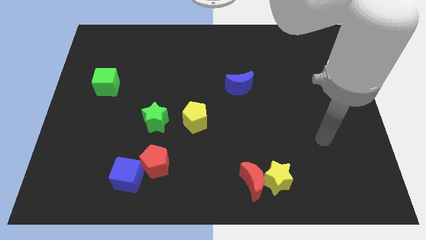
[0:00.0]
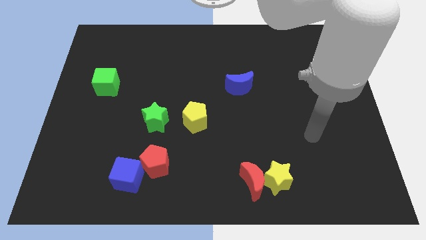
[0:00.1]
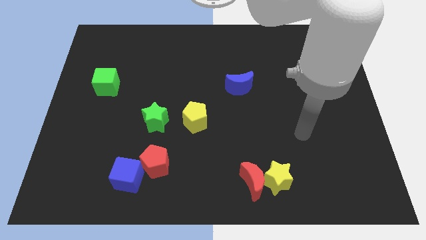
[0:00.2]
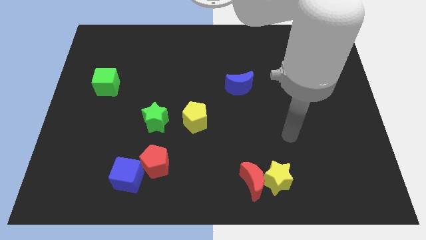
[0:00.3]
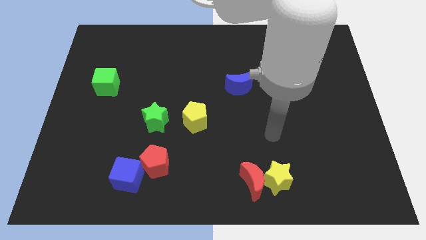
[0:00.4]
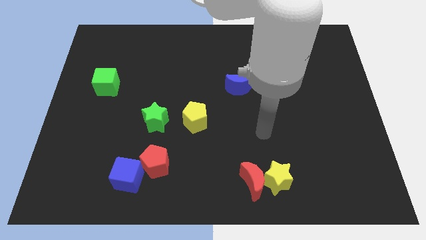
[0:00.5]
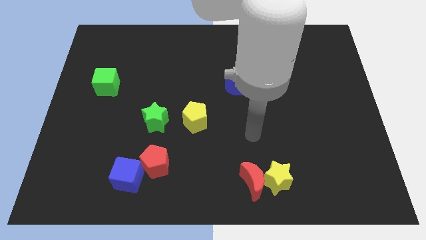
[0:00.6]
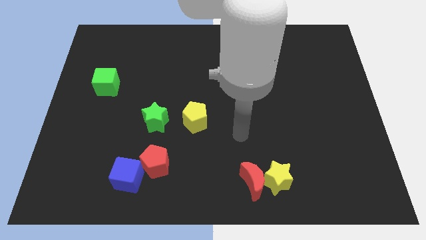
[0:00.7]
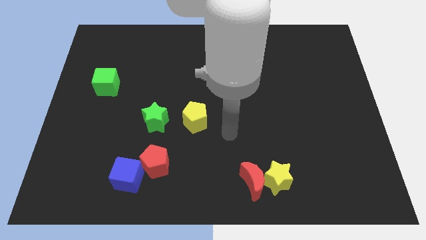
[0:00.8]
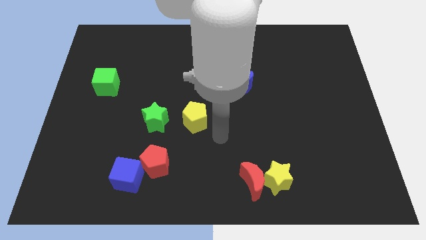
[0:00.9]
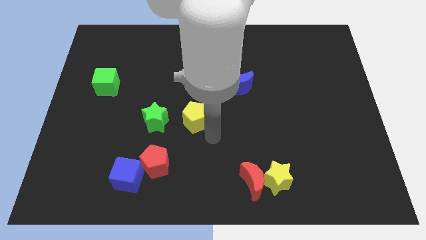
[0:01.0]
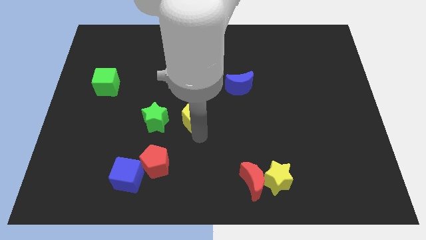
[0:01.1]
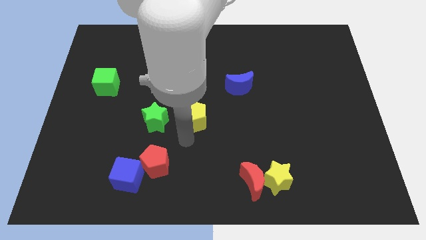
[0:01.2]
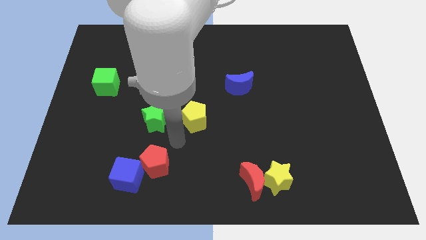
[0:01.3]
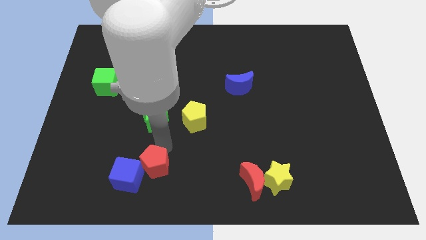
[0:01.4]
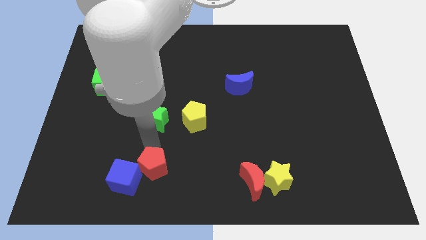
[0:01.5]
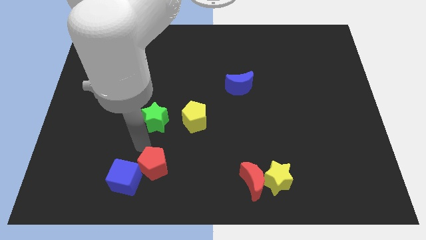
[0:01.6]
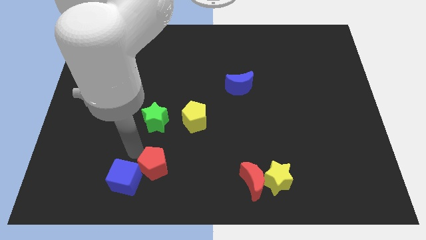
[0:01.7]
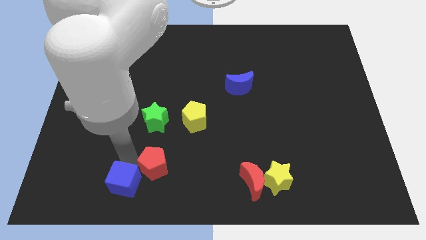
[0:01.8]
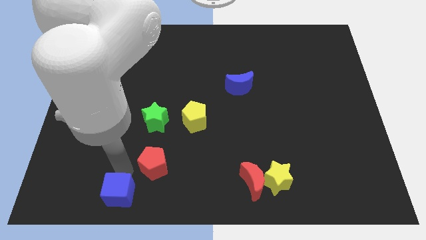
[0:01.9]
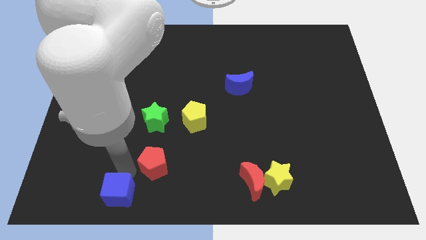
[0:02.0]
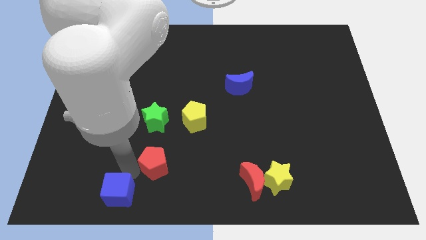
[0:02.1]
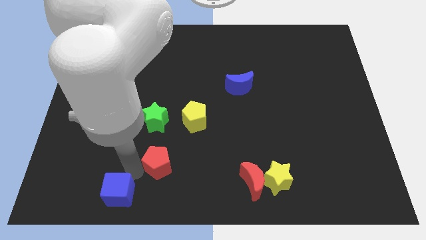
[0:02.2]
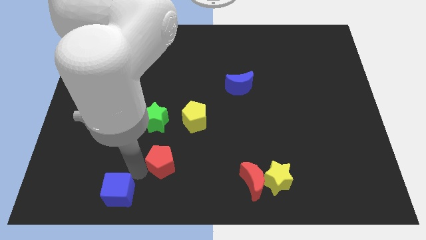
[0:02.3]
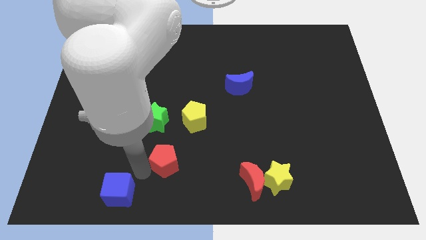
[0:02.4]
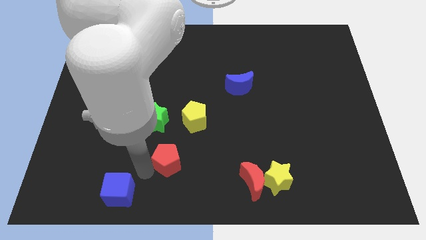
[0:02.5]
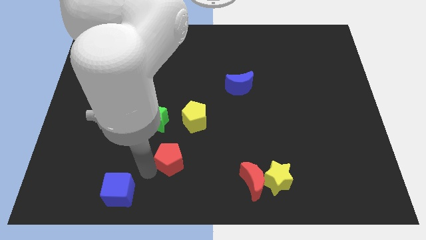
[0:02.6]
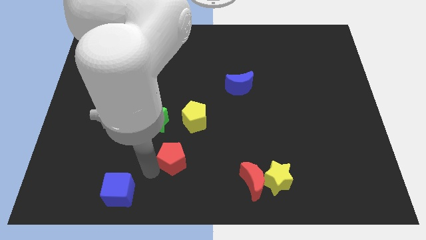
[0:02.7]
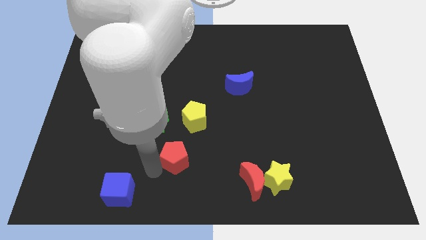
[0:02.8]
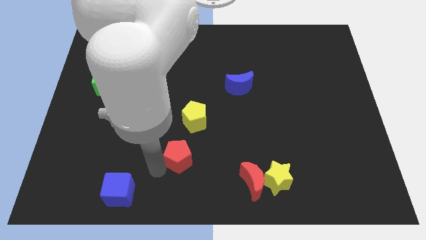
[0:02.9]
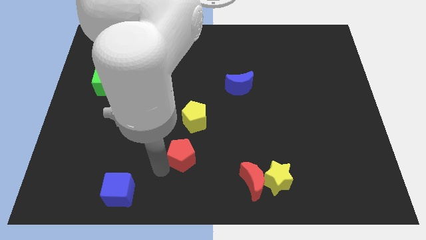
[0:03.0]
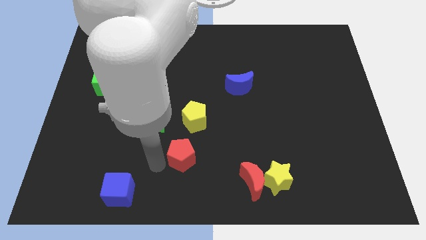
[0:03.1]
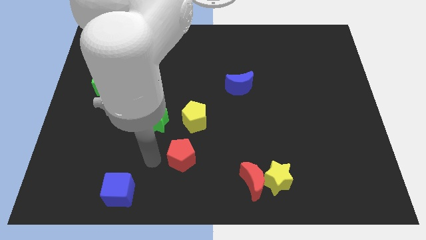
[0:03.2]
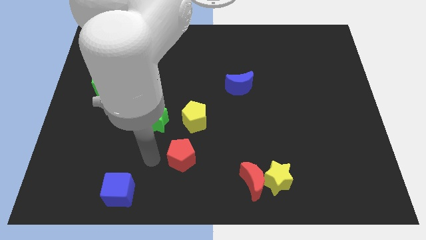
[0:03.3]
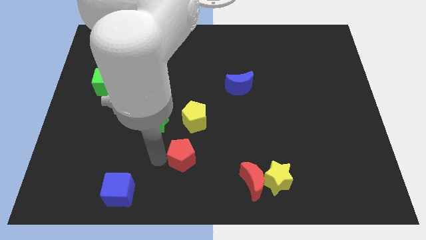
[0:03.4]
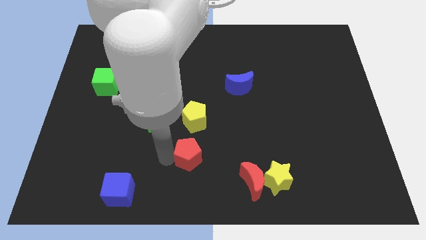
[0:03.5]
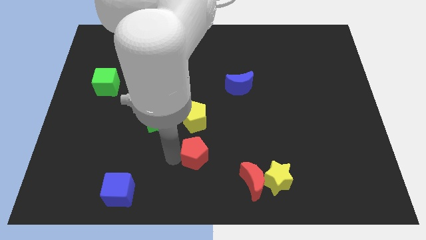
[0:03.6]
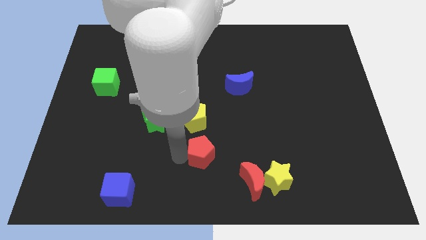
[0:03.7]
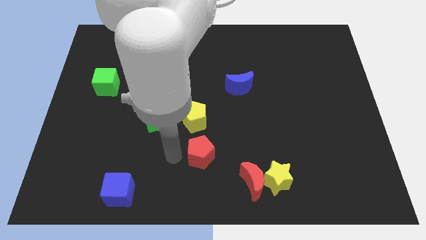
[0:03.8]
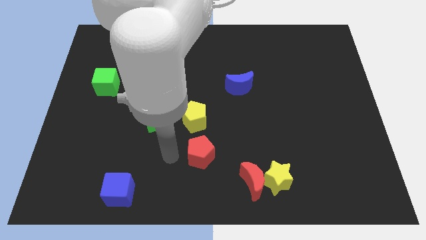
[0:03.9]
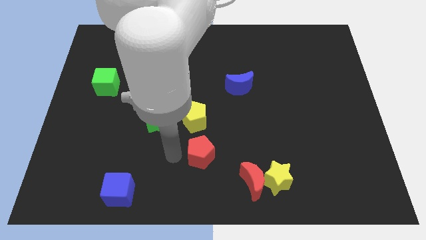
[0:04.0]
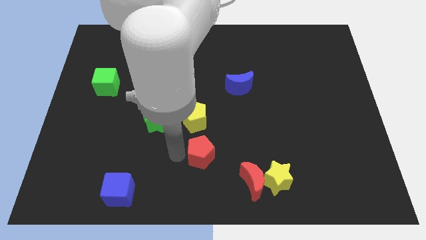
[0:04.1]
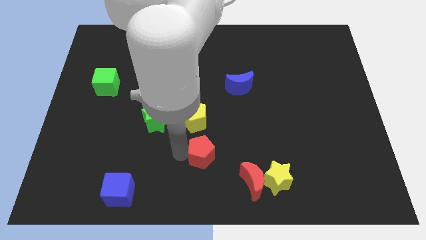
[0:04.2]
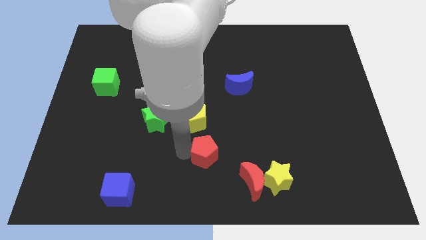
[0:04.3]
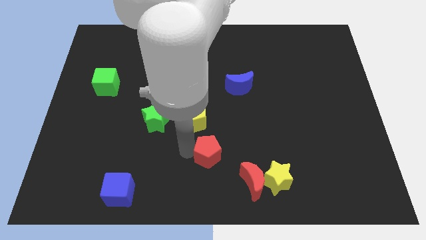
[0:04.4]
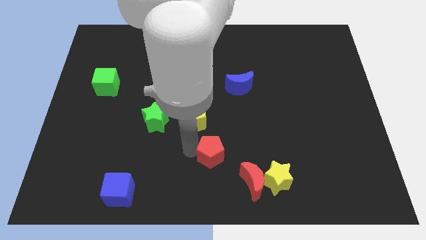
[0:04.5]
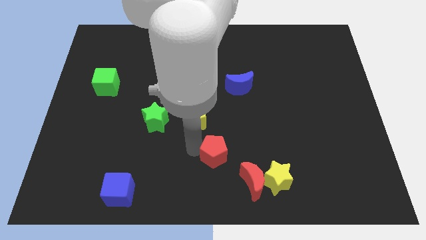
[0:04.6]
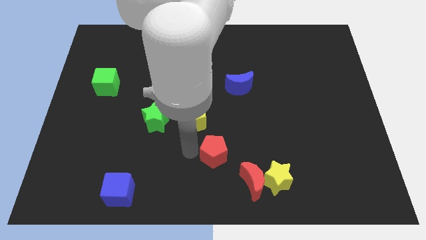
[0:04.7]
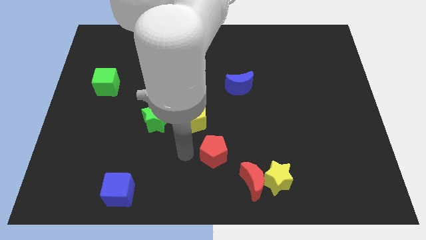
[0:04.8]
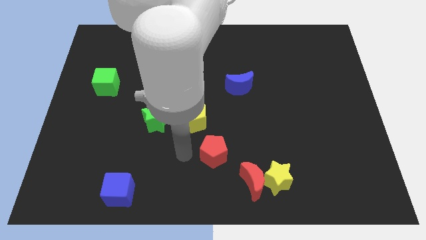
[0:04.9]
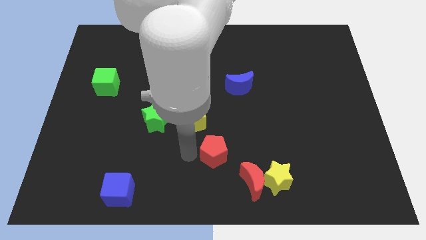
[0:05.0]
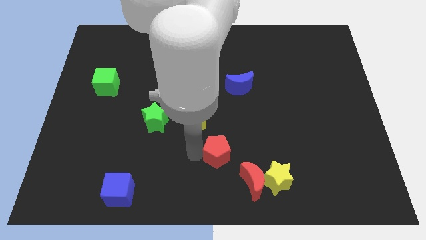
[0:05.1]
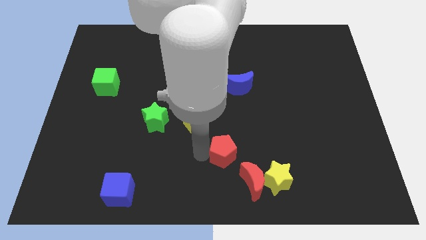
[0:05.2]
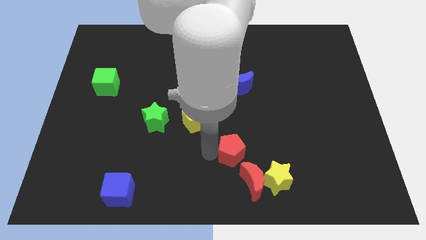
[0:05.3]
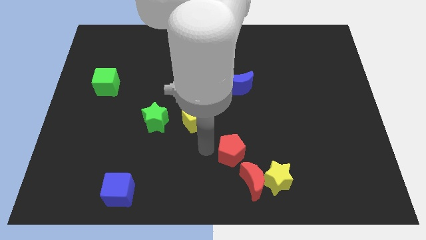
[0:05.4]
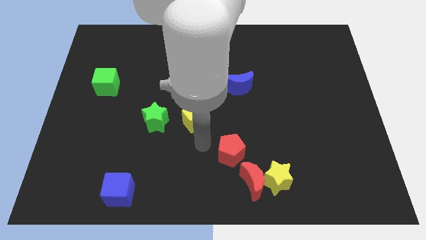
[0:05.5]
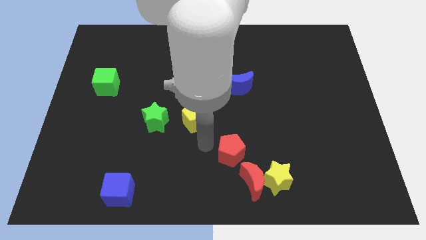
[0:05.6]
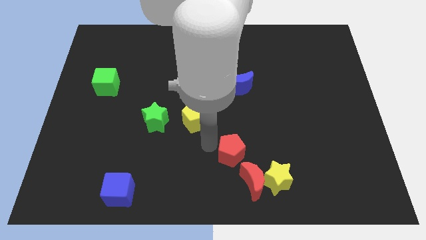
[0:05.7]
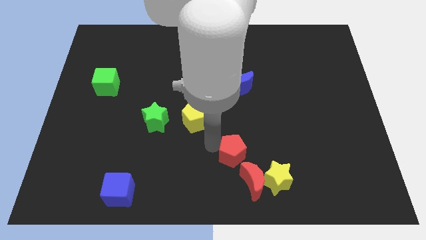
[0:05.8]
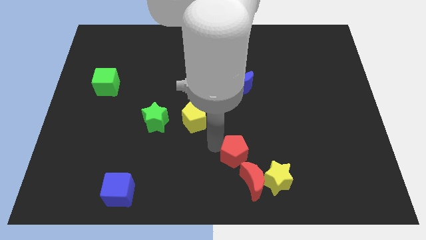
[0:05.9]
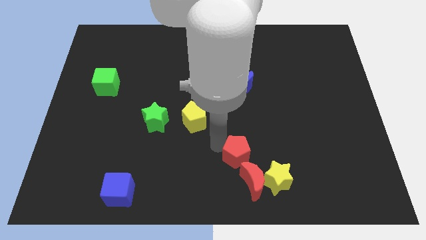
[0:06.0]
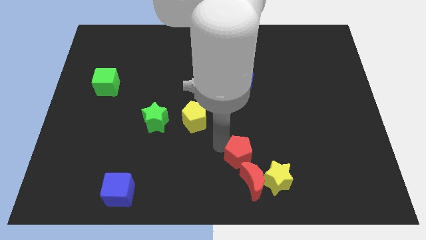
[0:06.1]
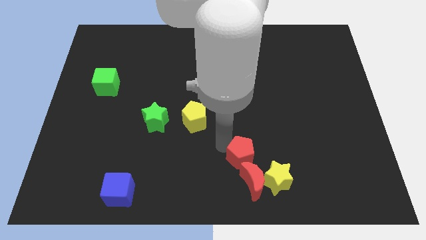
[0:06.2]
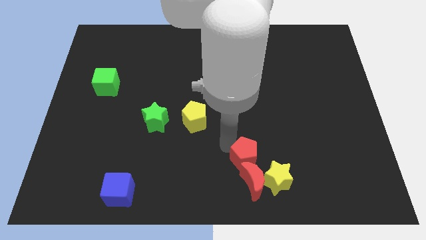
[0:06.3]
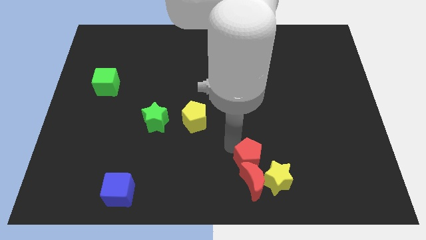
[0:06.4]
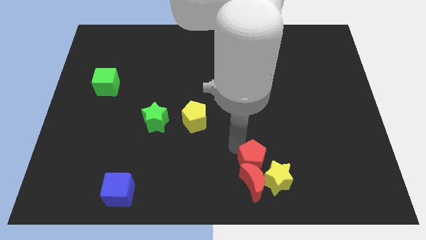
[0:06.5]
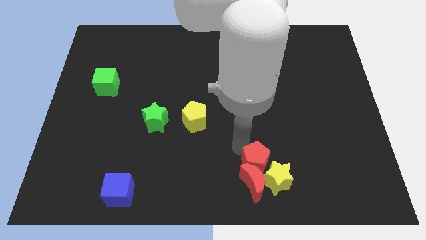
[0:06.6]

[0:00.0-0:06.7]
put the red pentagon towards the yellow star

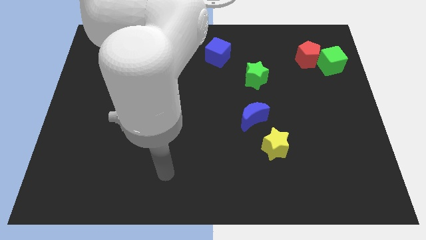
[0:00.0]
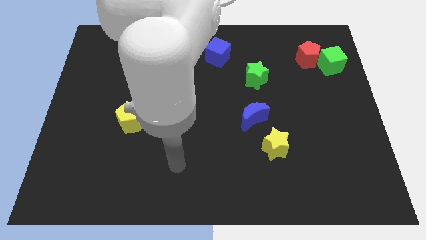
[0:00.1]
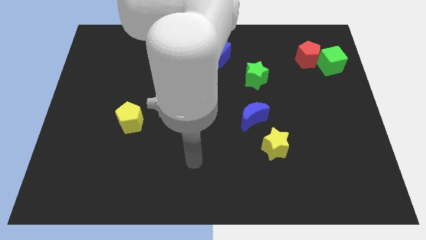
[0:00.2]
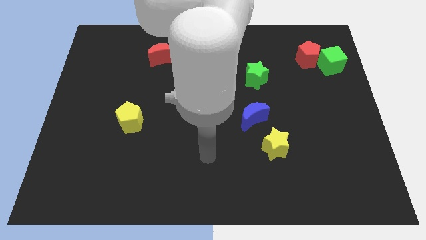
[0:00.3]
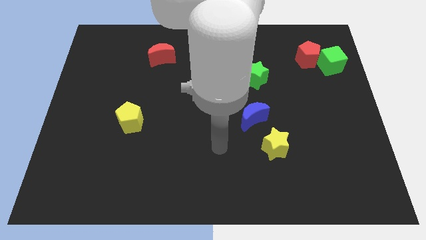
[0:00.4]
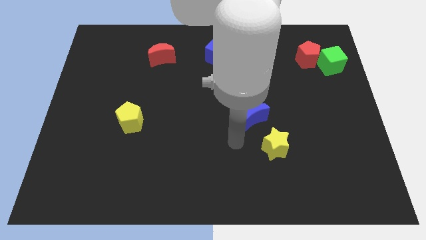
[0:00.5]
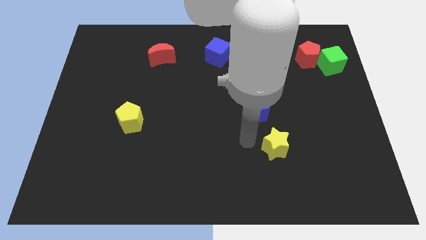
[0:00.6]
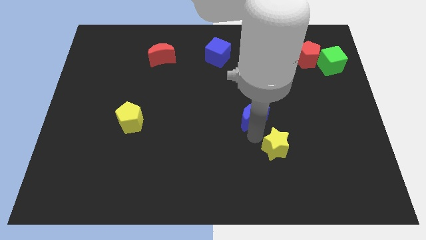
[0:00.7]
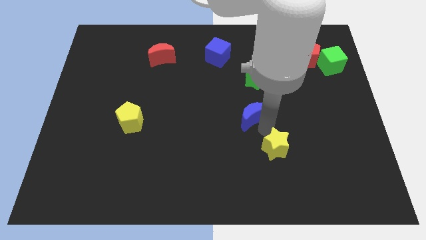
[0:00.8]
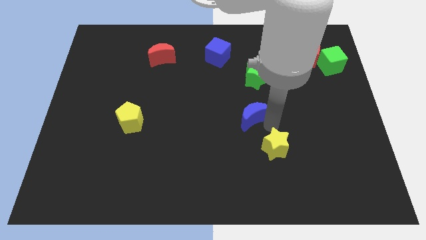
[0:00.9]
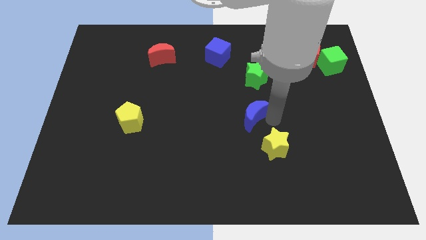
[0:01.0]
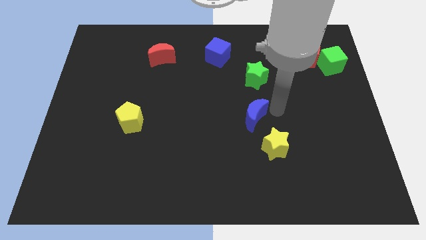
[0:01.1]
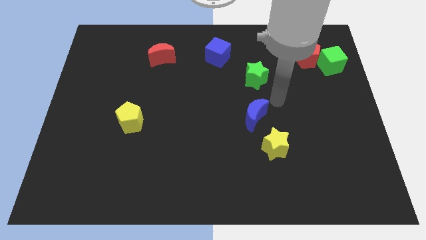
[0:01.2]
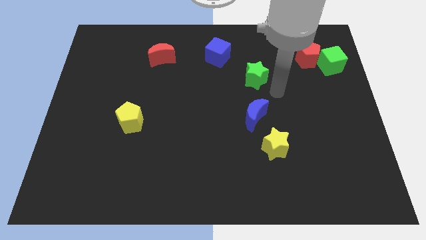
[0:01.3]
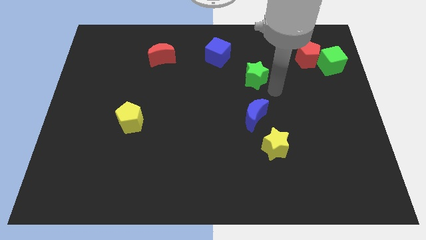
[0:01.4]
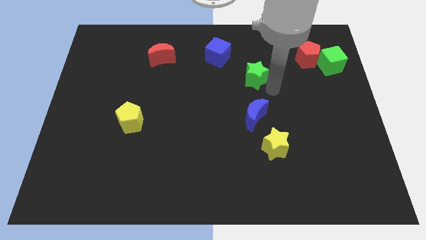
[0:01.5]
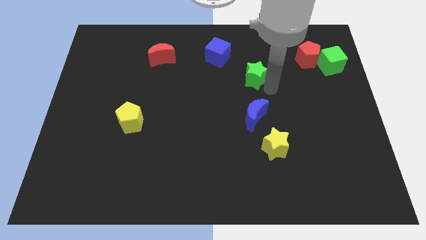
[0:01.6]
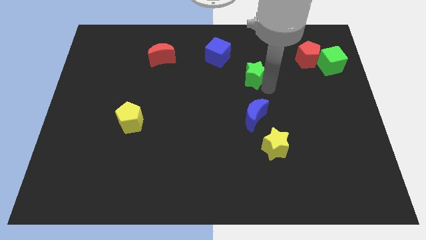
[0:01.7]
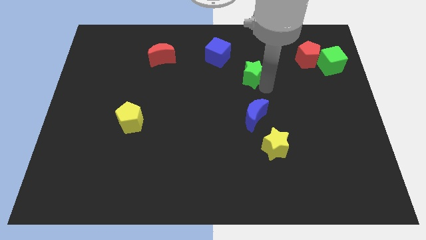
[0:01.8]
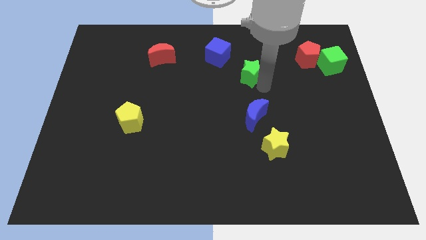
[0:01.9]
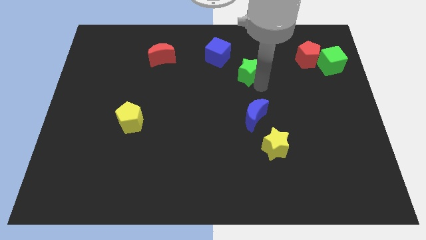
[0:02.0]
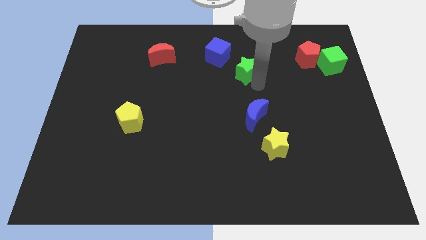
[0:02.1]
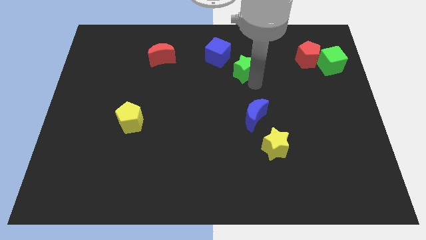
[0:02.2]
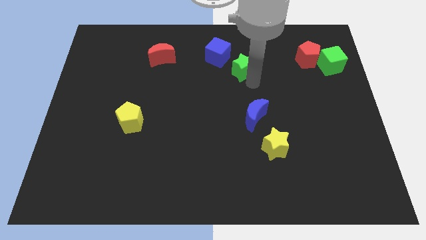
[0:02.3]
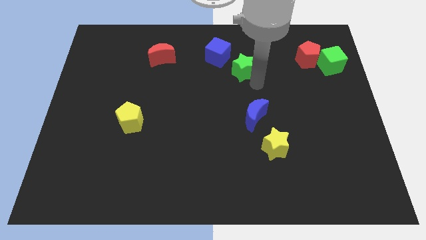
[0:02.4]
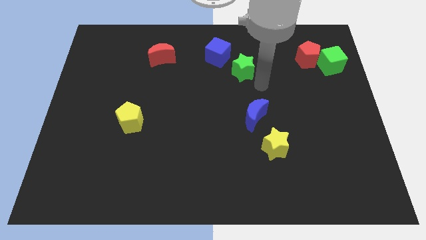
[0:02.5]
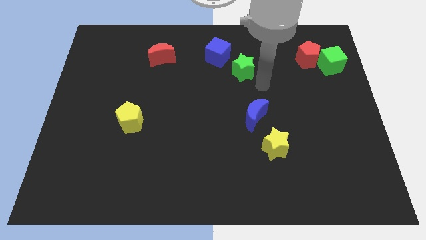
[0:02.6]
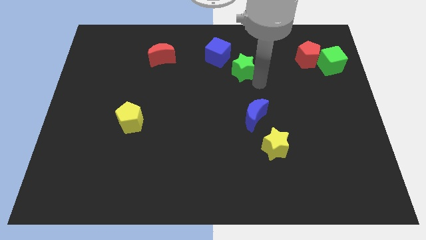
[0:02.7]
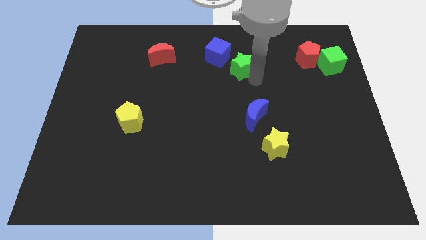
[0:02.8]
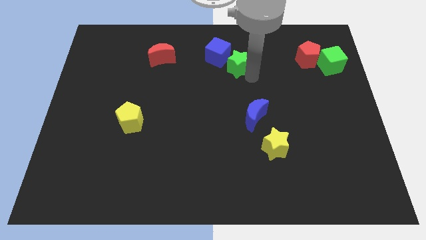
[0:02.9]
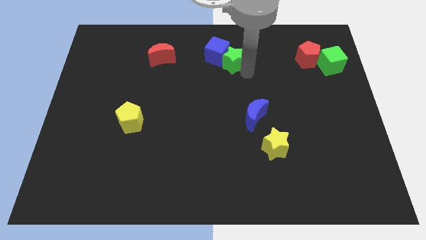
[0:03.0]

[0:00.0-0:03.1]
put the green star close to the blue cube
